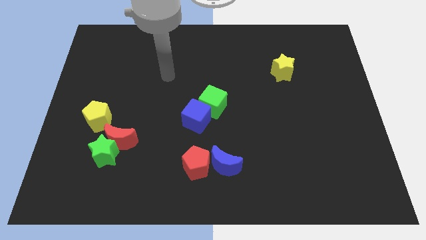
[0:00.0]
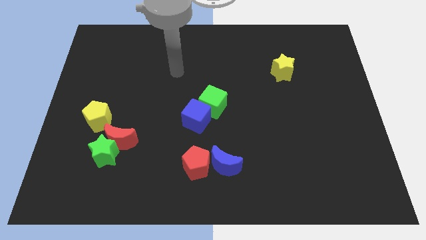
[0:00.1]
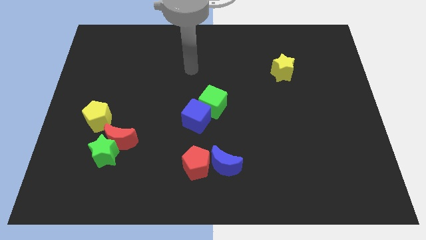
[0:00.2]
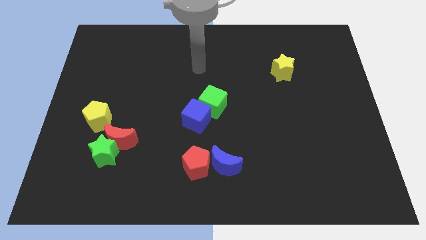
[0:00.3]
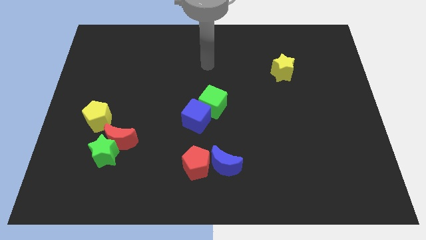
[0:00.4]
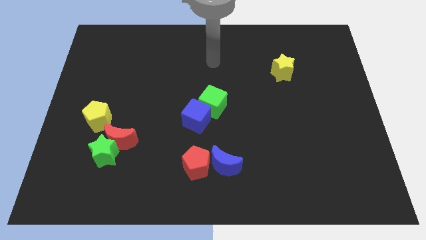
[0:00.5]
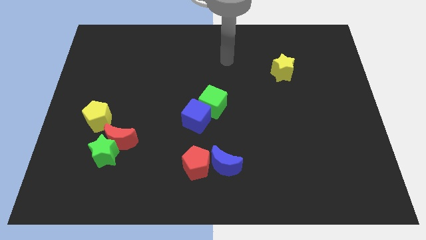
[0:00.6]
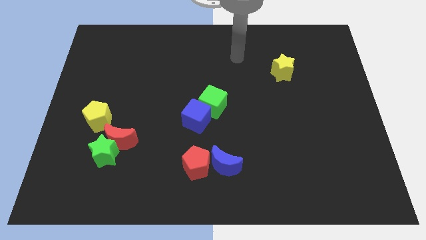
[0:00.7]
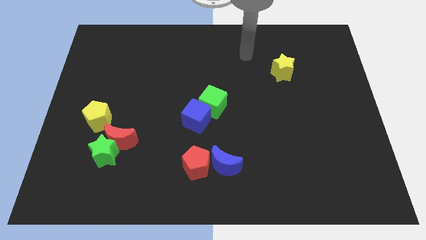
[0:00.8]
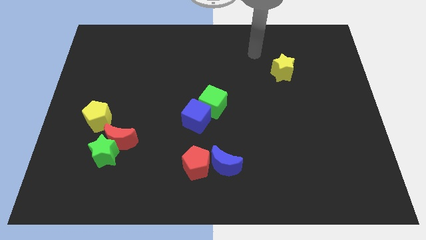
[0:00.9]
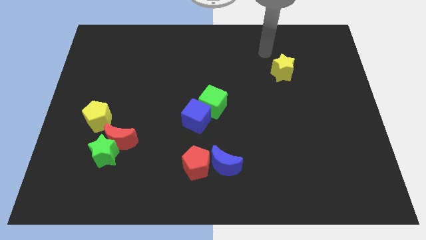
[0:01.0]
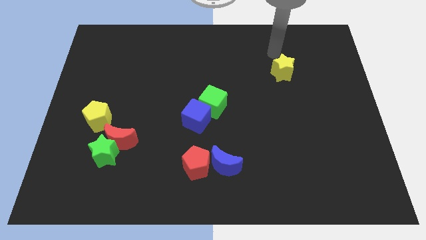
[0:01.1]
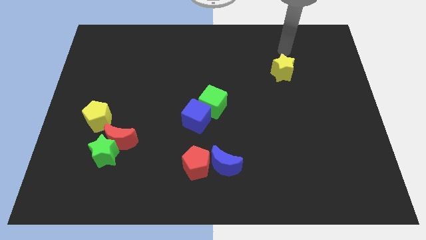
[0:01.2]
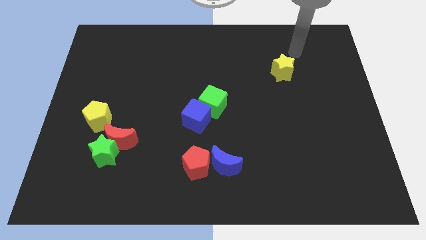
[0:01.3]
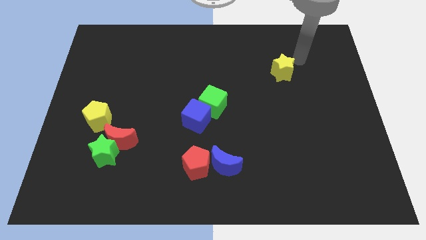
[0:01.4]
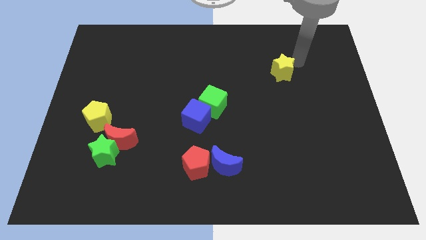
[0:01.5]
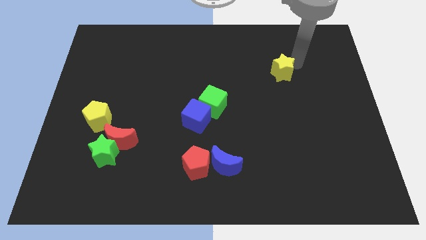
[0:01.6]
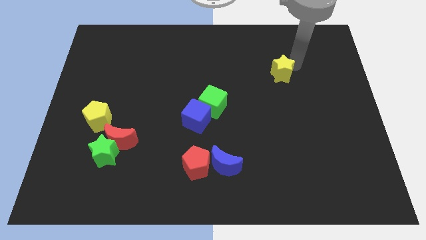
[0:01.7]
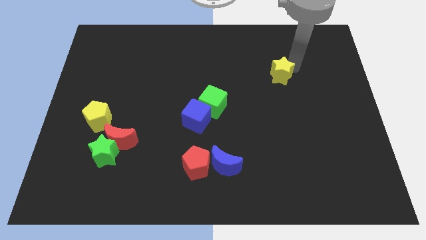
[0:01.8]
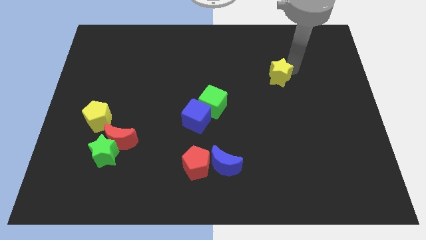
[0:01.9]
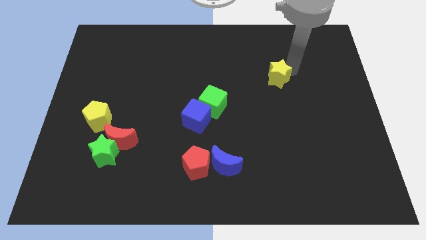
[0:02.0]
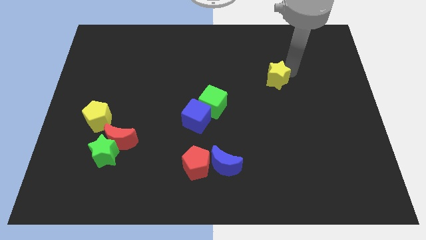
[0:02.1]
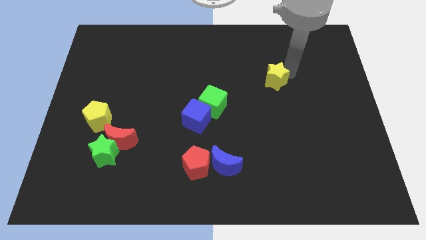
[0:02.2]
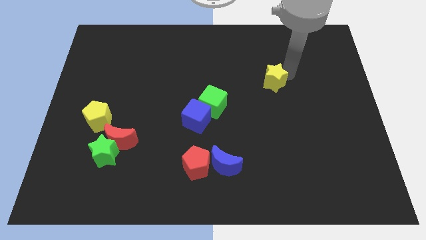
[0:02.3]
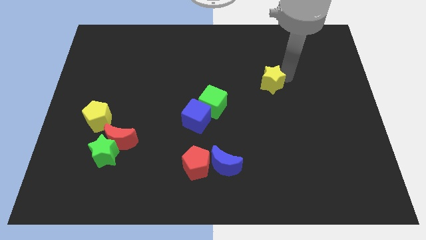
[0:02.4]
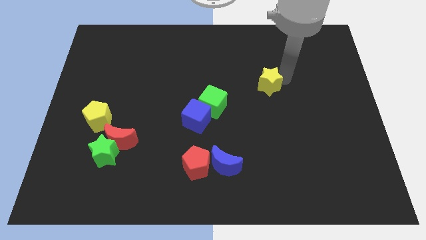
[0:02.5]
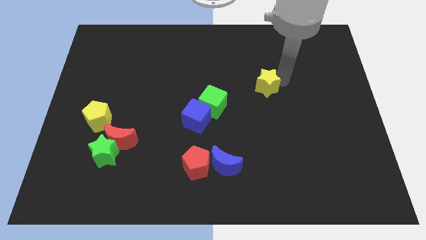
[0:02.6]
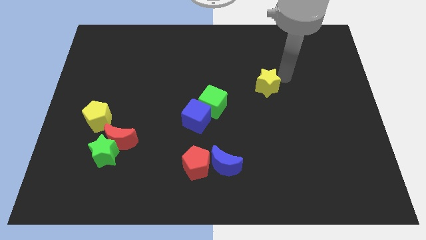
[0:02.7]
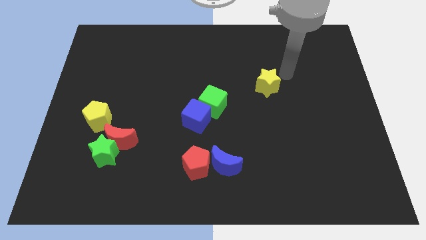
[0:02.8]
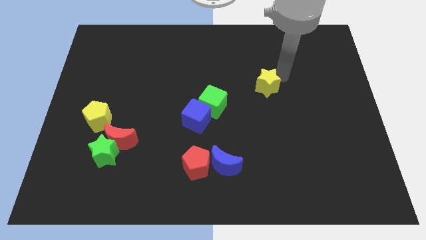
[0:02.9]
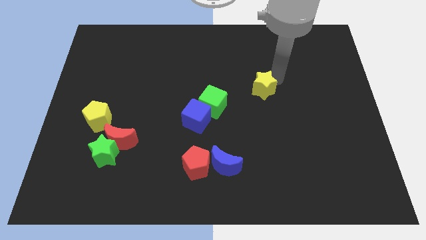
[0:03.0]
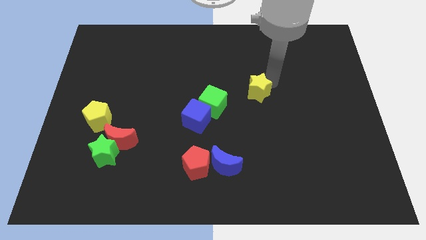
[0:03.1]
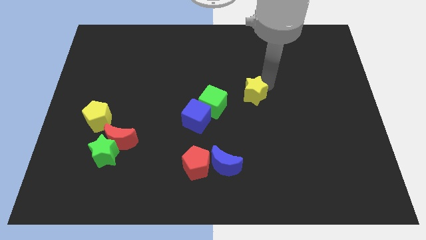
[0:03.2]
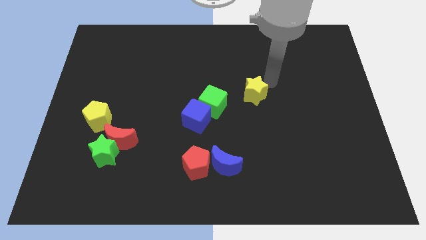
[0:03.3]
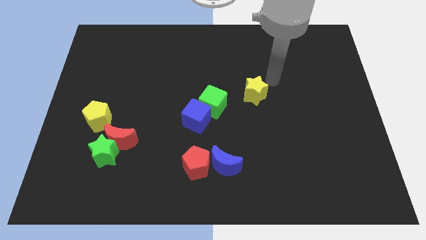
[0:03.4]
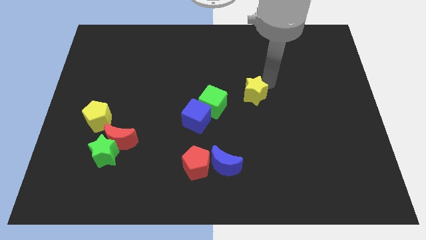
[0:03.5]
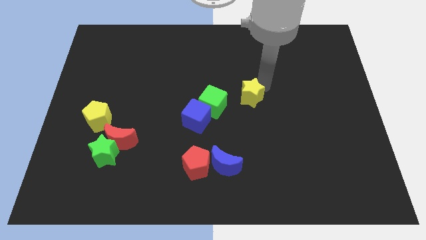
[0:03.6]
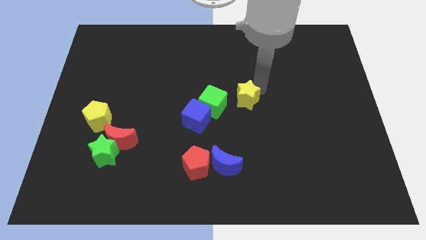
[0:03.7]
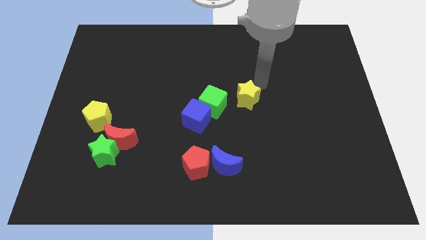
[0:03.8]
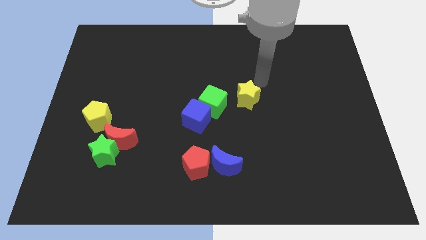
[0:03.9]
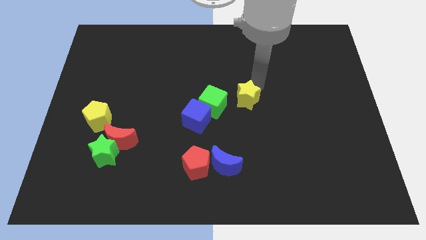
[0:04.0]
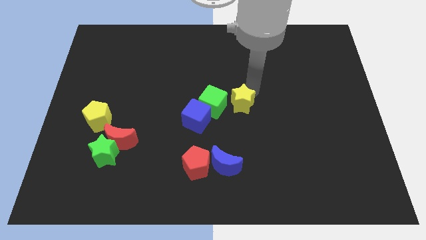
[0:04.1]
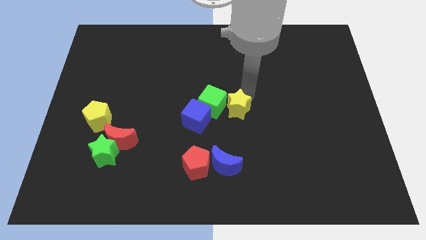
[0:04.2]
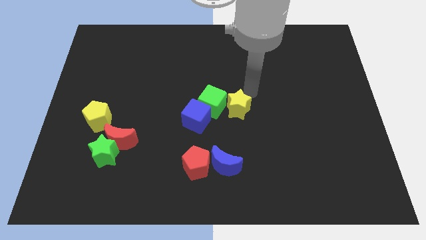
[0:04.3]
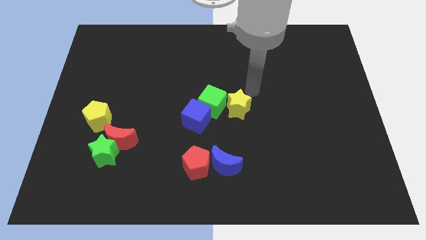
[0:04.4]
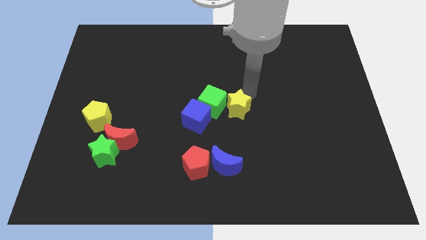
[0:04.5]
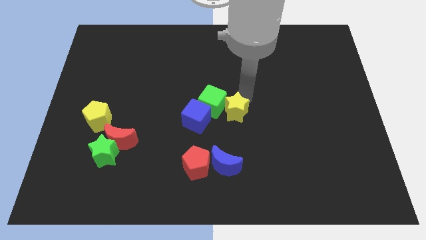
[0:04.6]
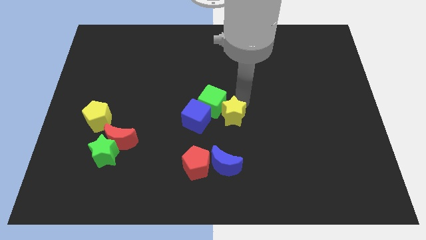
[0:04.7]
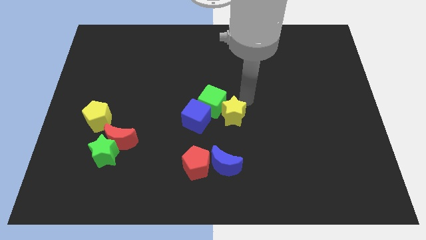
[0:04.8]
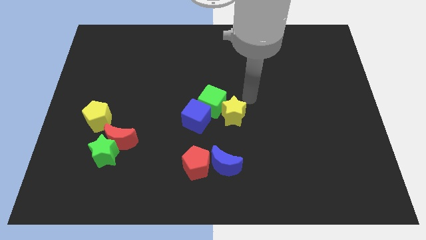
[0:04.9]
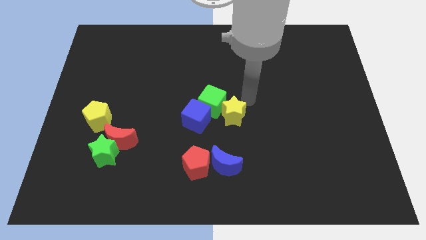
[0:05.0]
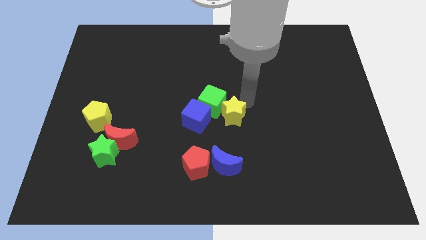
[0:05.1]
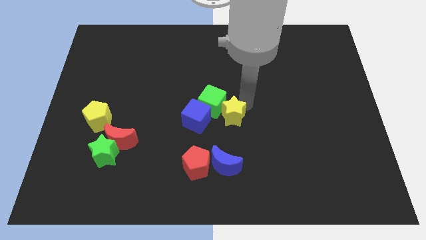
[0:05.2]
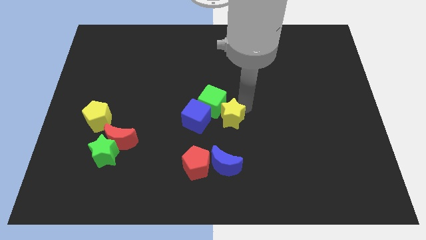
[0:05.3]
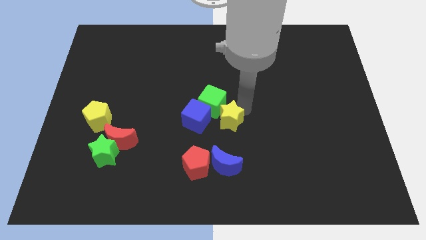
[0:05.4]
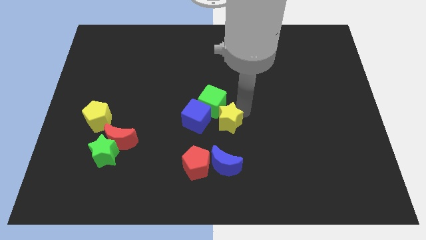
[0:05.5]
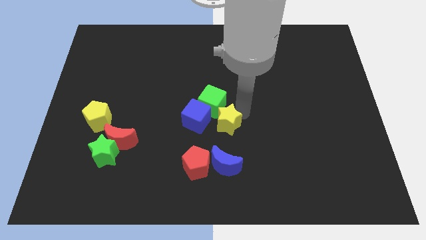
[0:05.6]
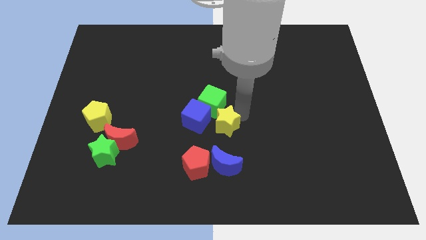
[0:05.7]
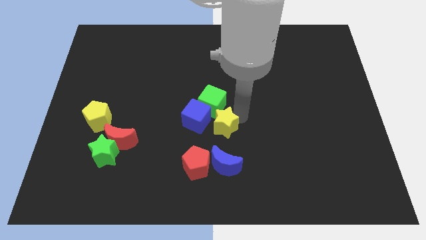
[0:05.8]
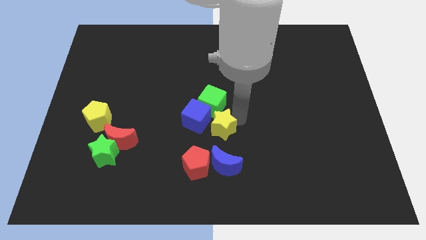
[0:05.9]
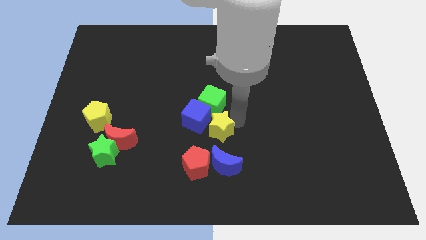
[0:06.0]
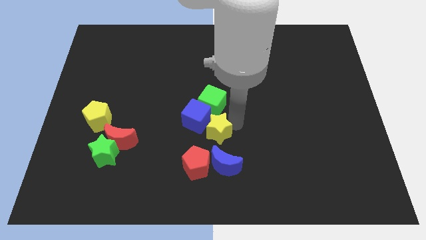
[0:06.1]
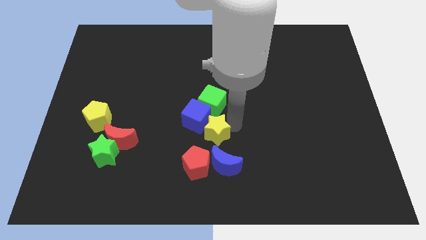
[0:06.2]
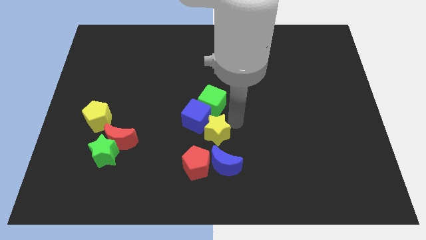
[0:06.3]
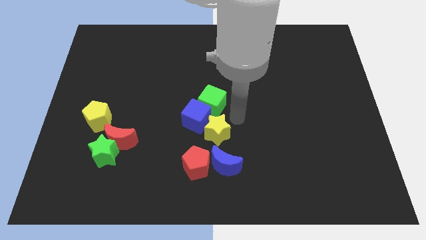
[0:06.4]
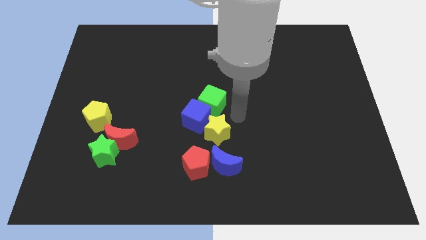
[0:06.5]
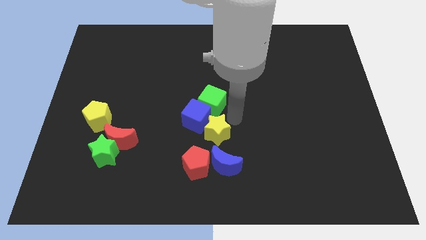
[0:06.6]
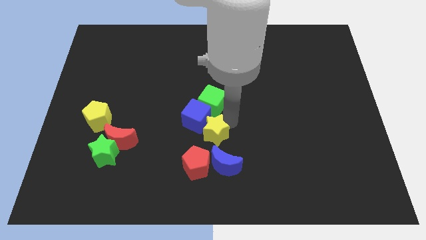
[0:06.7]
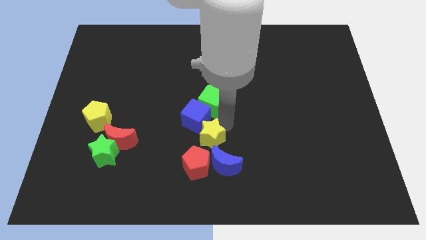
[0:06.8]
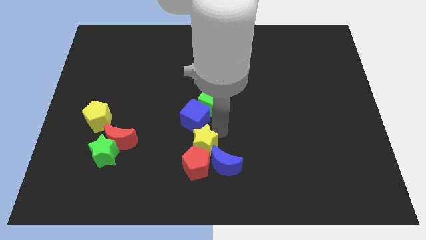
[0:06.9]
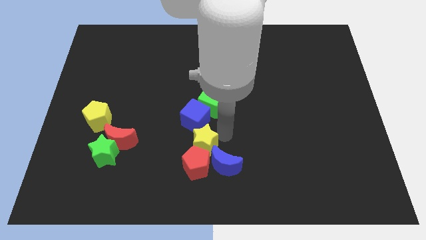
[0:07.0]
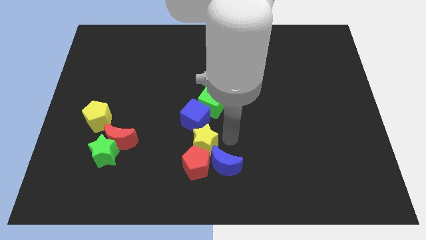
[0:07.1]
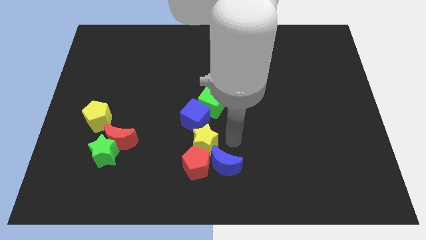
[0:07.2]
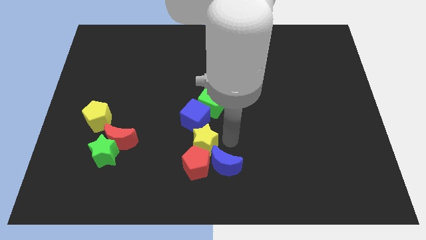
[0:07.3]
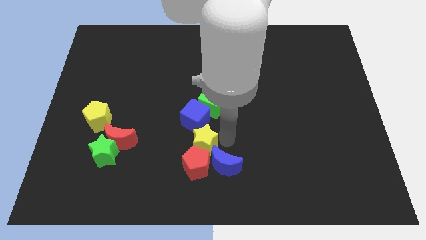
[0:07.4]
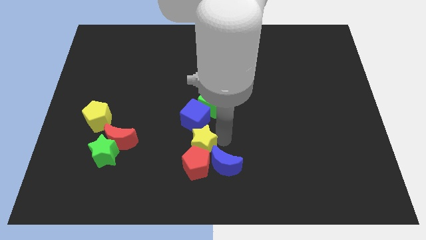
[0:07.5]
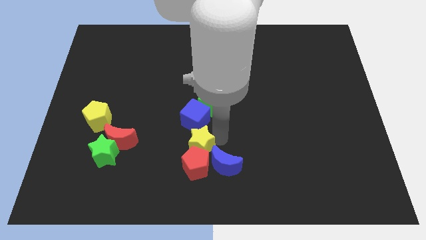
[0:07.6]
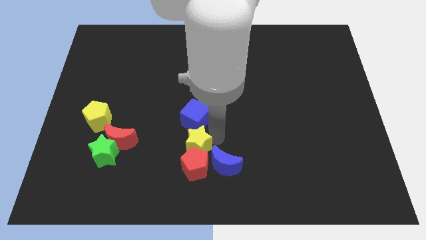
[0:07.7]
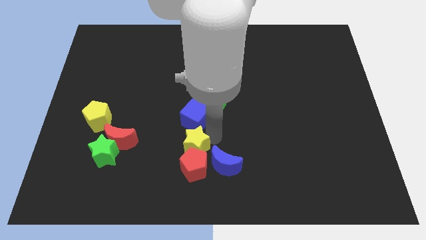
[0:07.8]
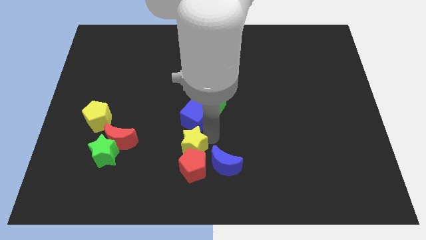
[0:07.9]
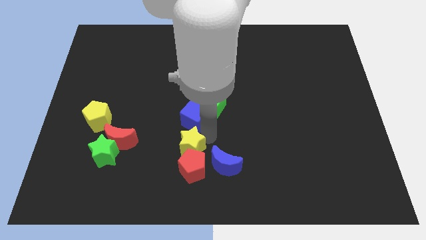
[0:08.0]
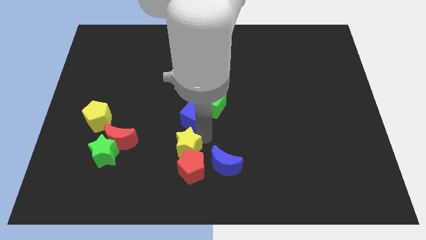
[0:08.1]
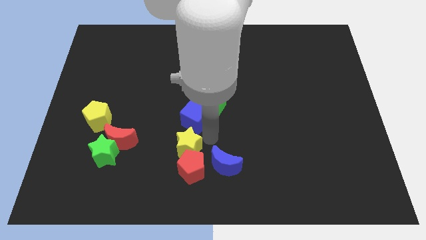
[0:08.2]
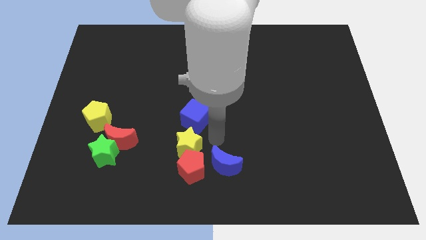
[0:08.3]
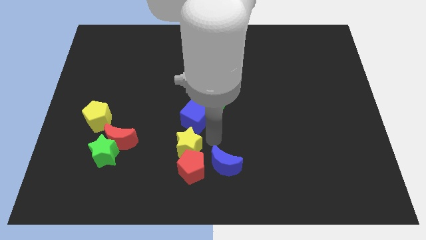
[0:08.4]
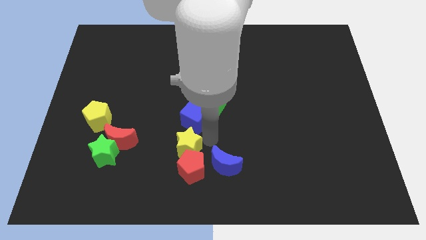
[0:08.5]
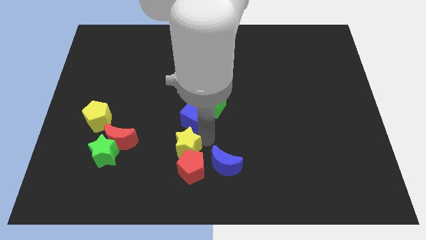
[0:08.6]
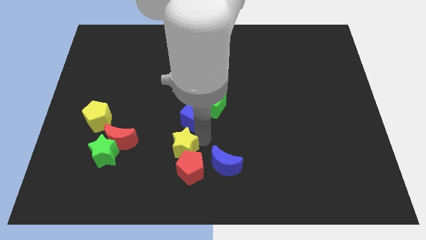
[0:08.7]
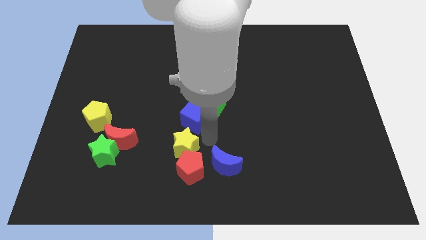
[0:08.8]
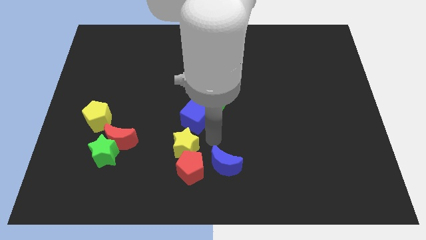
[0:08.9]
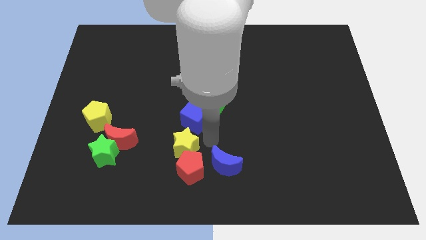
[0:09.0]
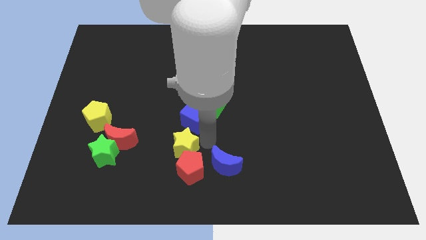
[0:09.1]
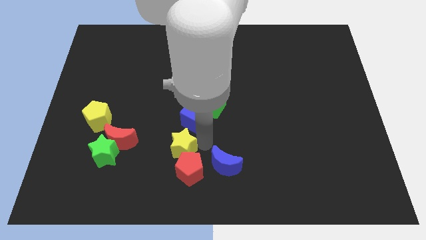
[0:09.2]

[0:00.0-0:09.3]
move the yellow star just right of the green star
